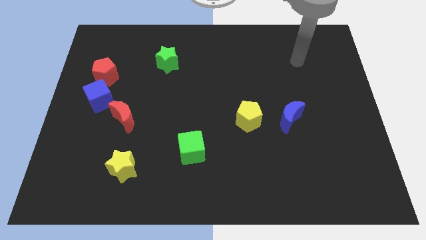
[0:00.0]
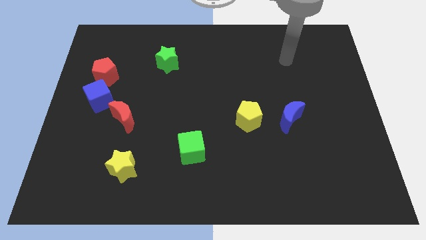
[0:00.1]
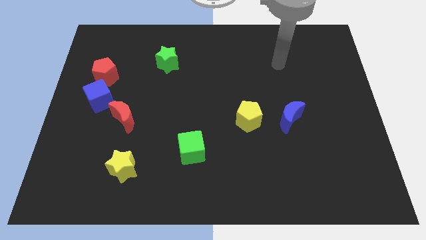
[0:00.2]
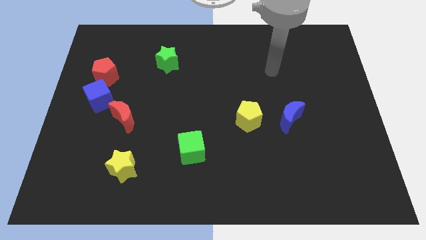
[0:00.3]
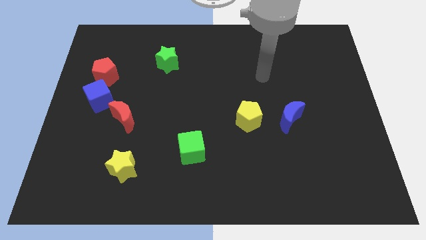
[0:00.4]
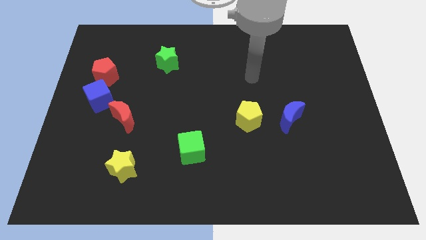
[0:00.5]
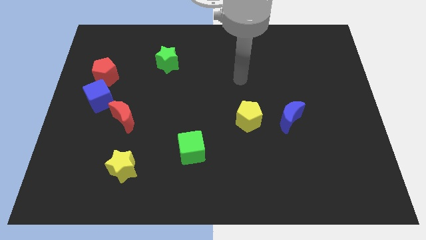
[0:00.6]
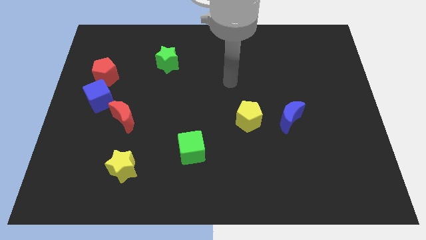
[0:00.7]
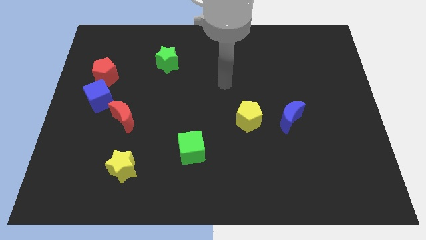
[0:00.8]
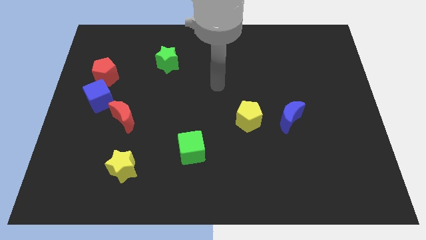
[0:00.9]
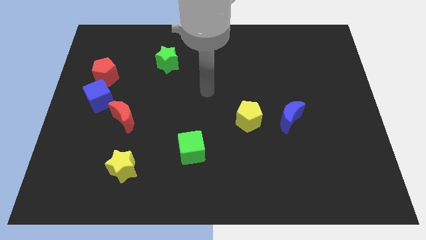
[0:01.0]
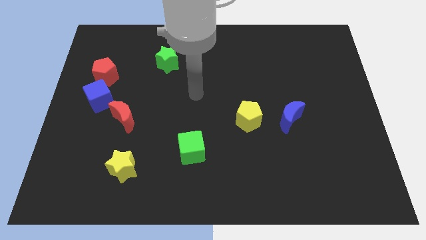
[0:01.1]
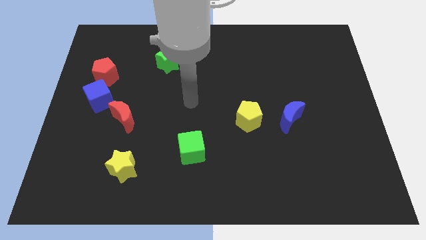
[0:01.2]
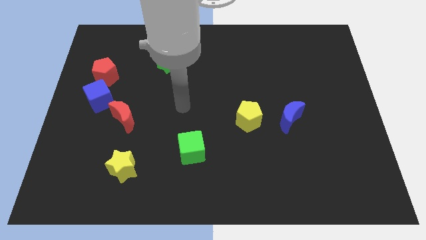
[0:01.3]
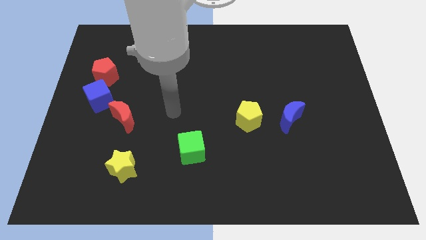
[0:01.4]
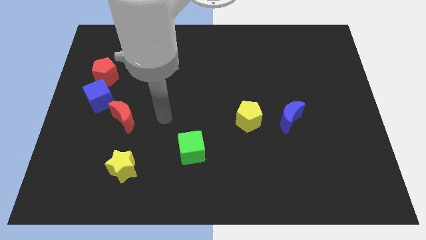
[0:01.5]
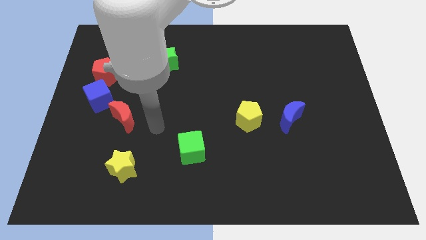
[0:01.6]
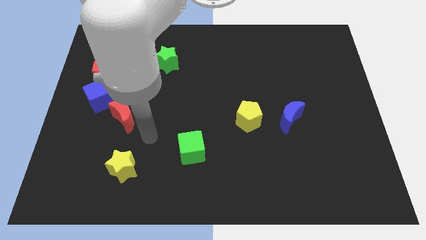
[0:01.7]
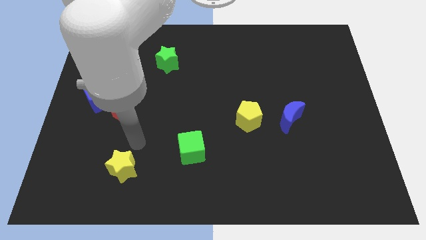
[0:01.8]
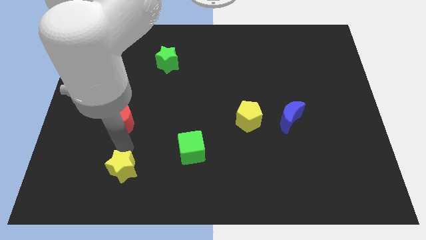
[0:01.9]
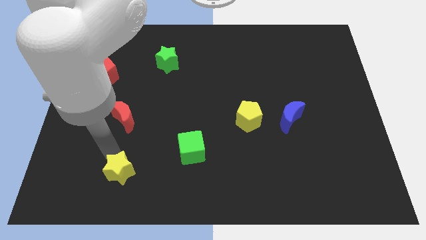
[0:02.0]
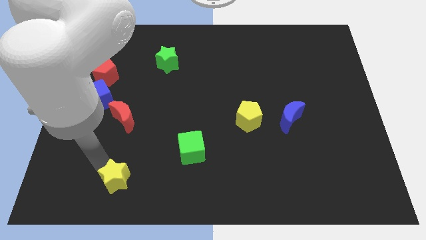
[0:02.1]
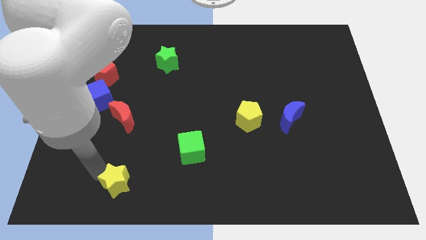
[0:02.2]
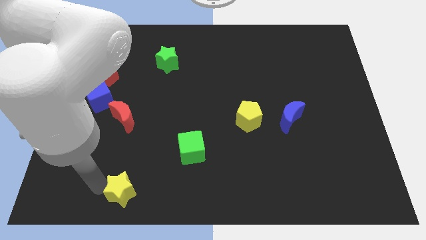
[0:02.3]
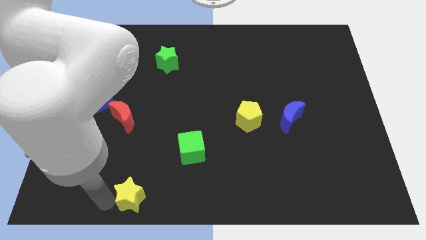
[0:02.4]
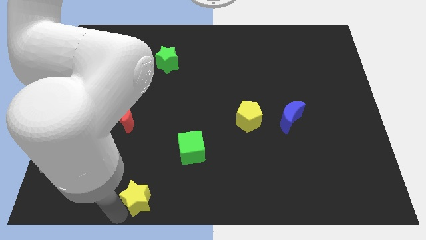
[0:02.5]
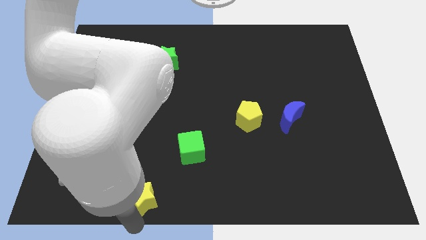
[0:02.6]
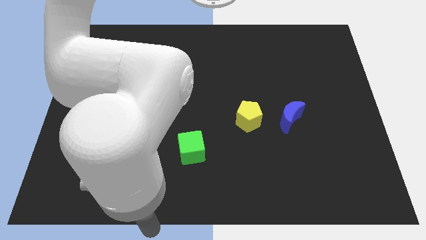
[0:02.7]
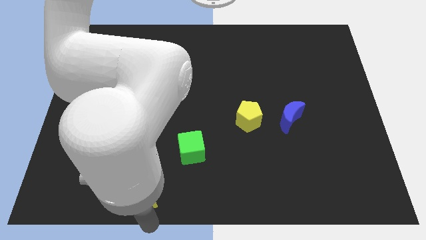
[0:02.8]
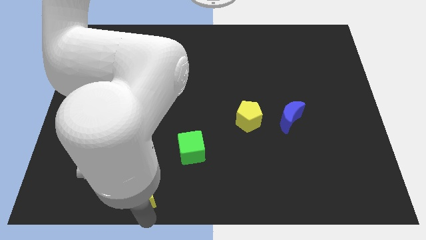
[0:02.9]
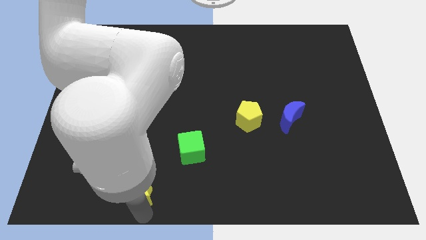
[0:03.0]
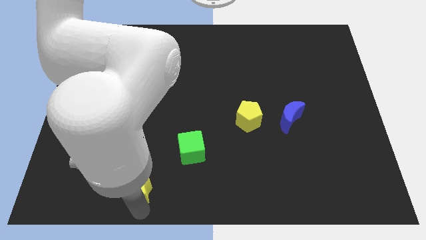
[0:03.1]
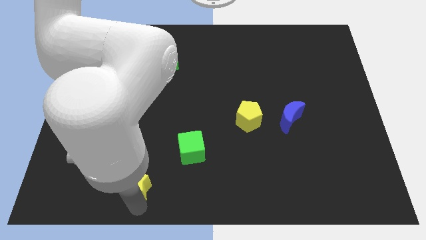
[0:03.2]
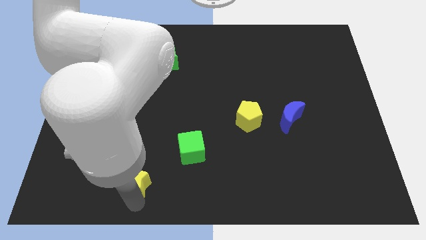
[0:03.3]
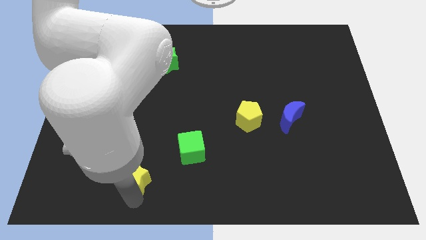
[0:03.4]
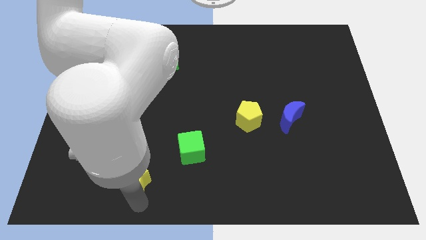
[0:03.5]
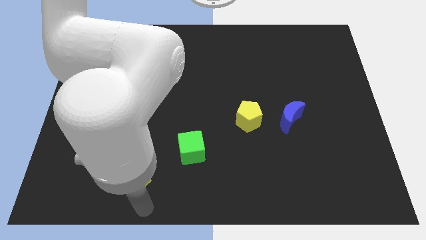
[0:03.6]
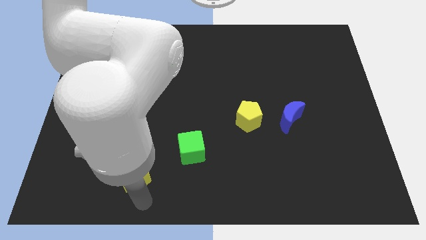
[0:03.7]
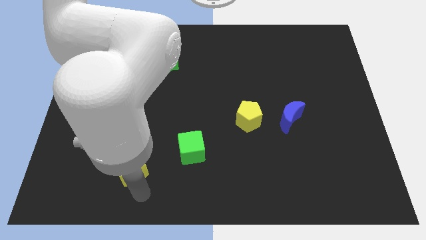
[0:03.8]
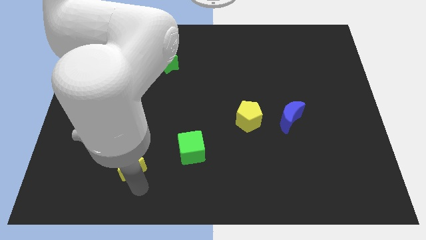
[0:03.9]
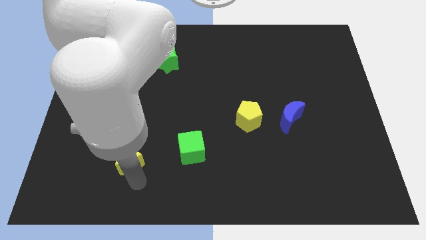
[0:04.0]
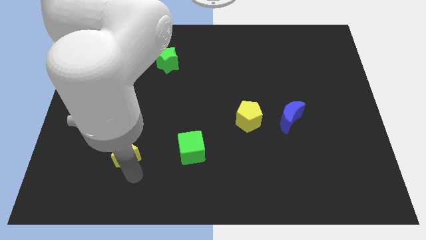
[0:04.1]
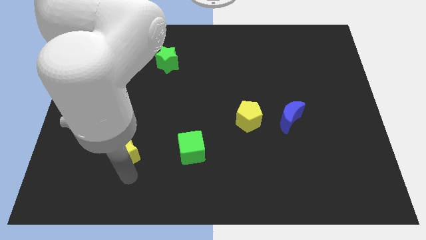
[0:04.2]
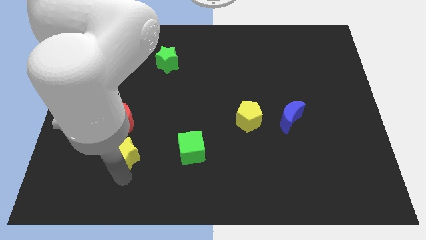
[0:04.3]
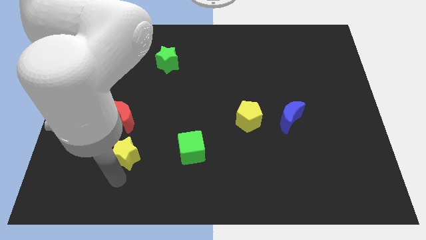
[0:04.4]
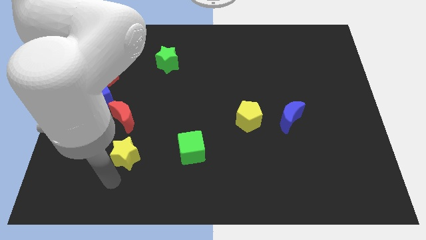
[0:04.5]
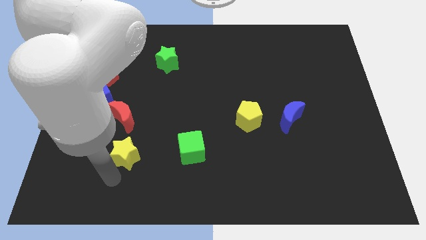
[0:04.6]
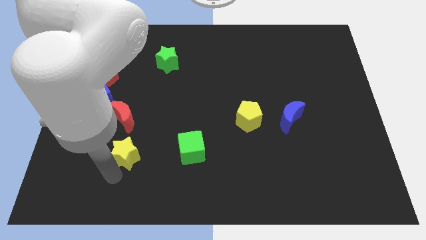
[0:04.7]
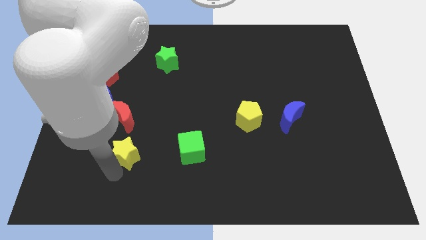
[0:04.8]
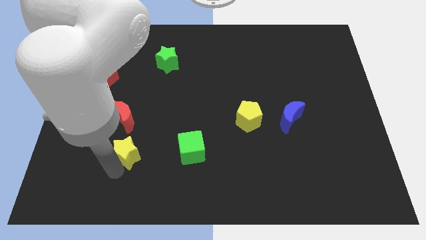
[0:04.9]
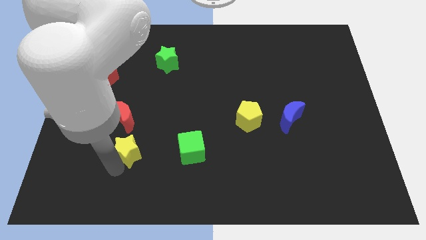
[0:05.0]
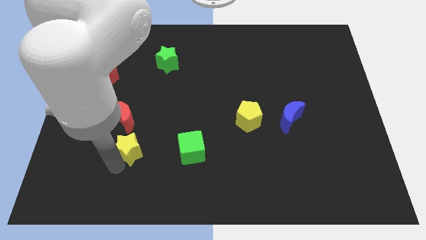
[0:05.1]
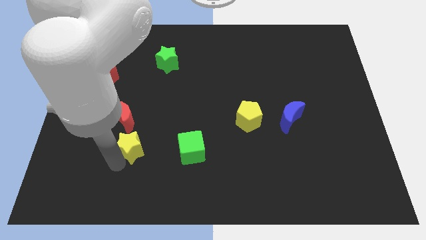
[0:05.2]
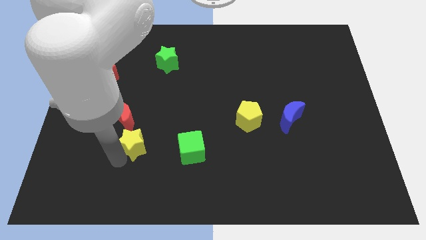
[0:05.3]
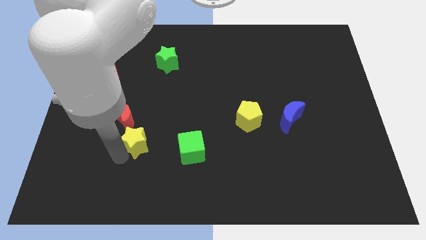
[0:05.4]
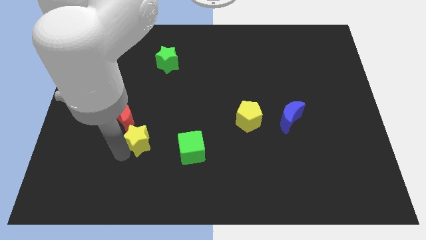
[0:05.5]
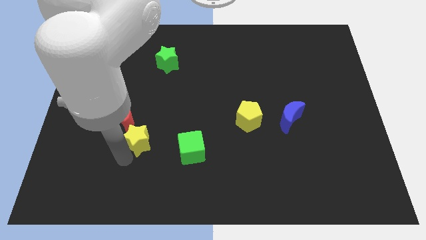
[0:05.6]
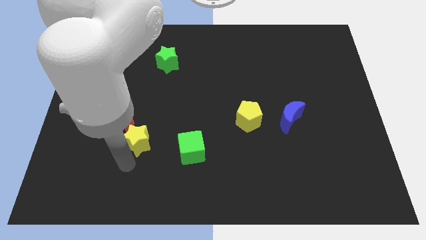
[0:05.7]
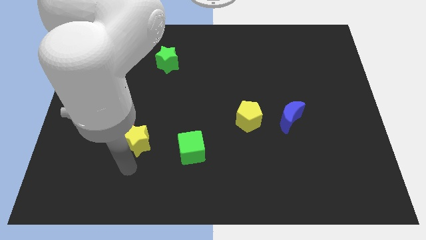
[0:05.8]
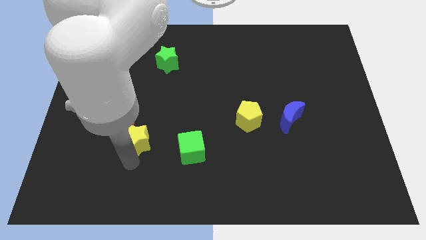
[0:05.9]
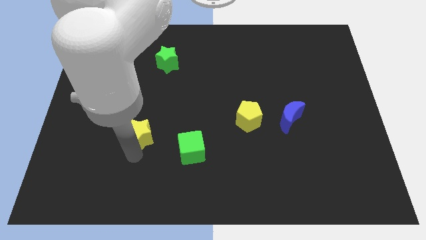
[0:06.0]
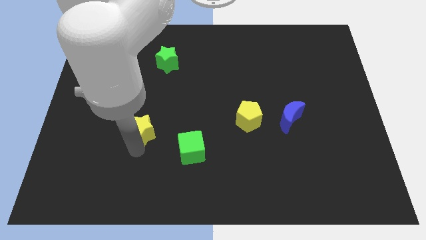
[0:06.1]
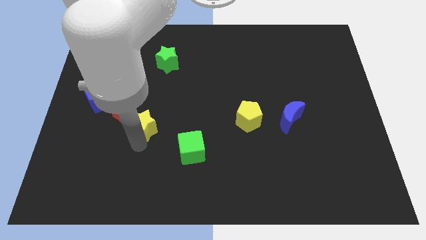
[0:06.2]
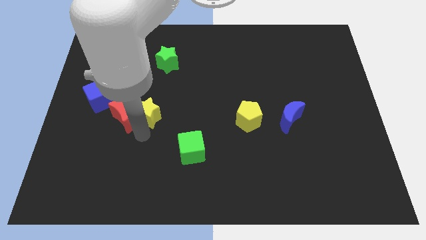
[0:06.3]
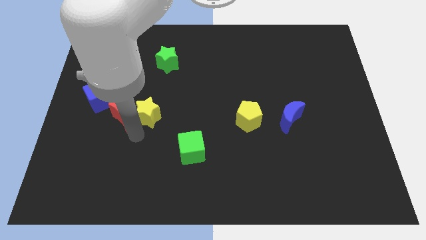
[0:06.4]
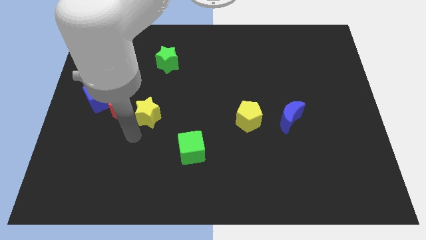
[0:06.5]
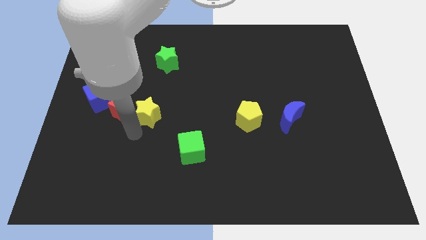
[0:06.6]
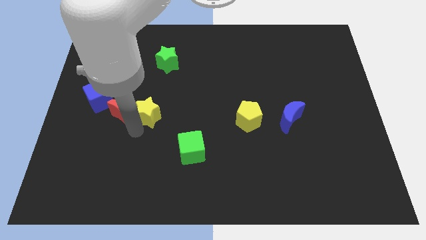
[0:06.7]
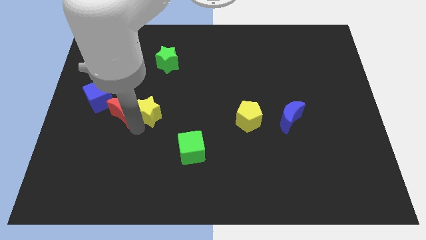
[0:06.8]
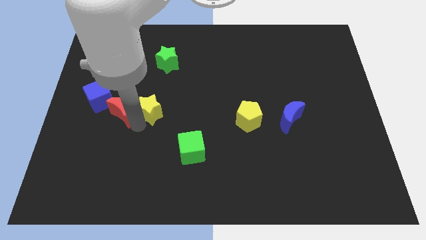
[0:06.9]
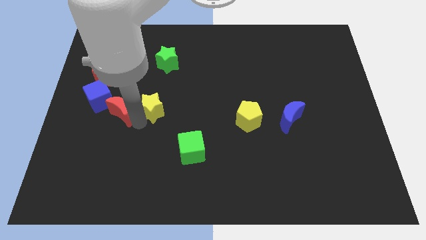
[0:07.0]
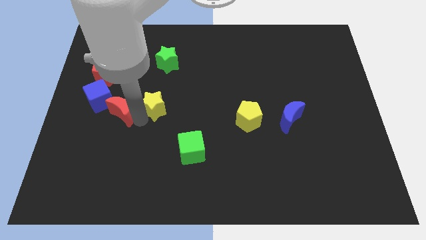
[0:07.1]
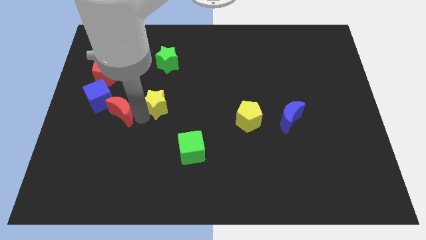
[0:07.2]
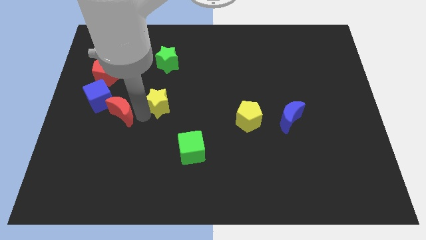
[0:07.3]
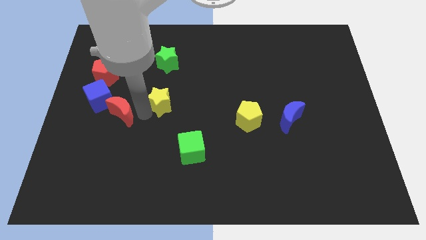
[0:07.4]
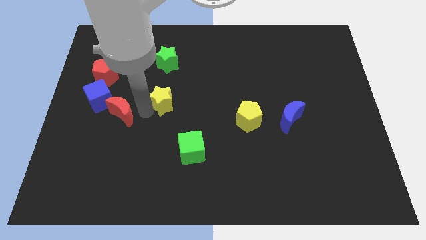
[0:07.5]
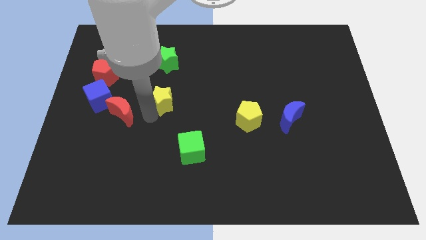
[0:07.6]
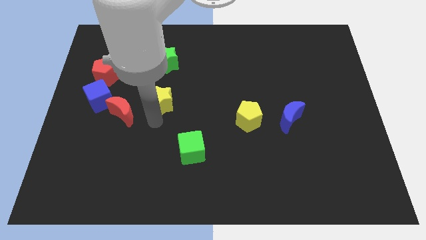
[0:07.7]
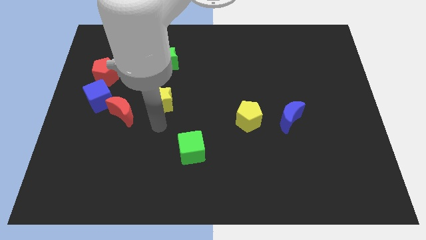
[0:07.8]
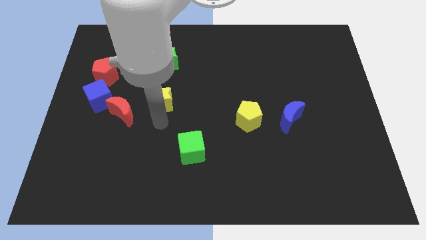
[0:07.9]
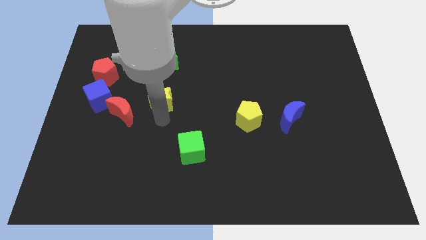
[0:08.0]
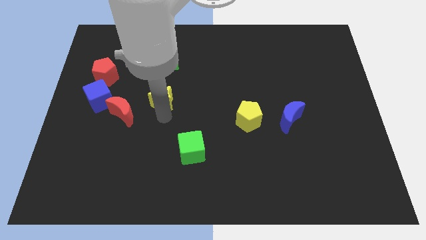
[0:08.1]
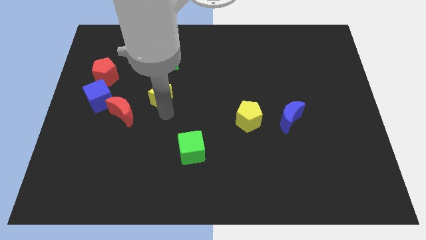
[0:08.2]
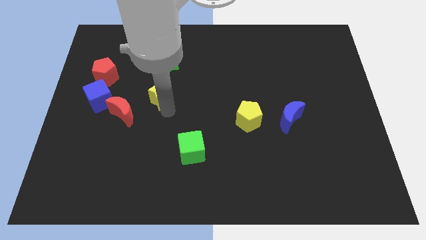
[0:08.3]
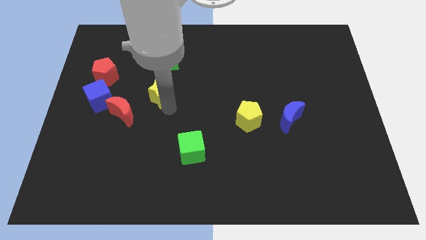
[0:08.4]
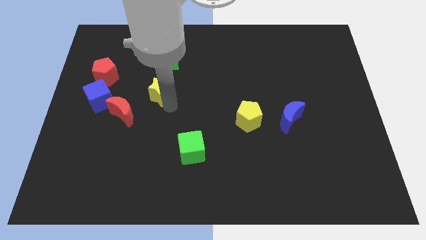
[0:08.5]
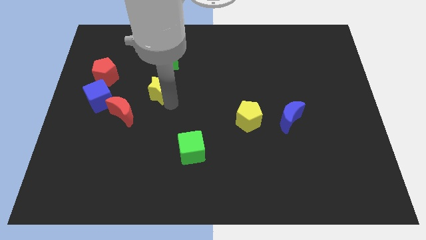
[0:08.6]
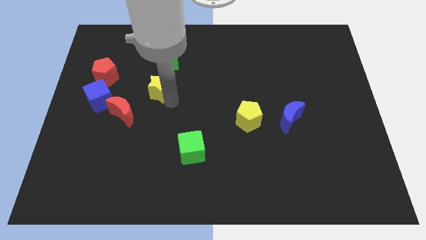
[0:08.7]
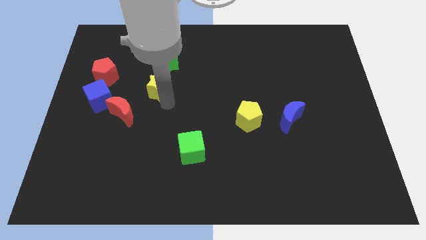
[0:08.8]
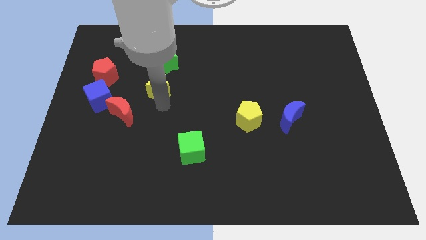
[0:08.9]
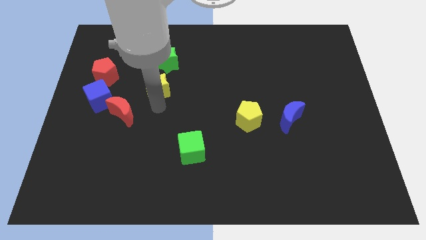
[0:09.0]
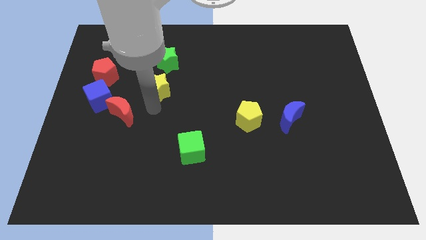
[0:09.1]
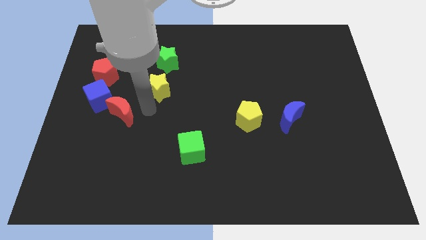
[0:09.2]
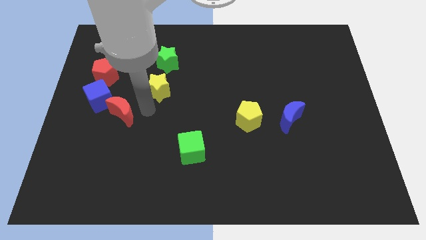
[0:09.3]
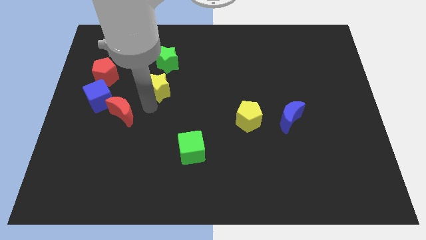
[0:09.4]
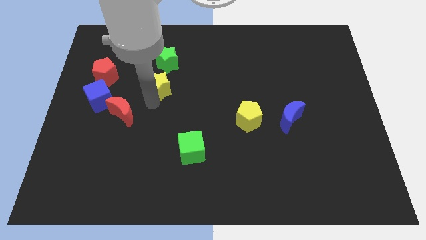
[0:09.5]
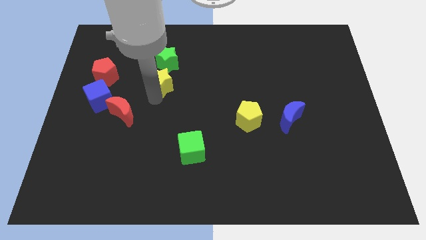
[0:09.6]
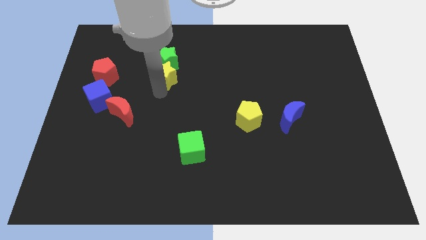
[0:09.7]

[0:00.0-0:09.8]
slide the yellow star next to the green star
